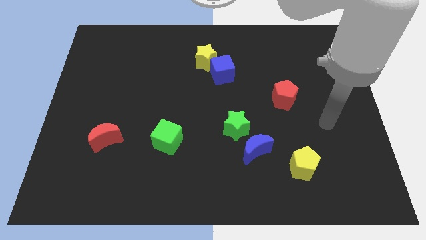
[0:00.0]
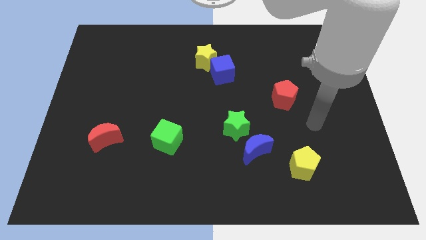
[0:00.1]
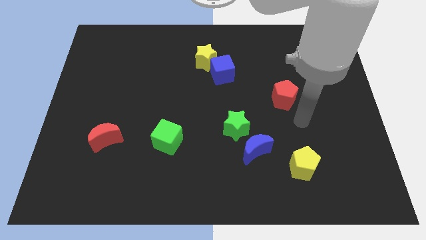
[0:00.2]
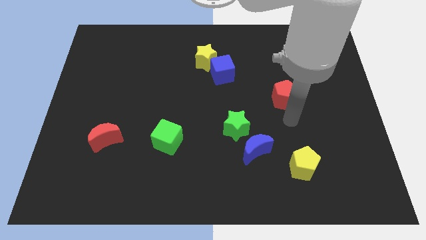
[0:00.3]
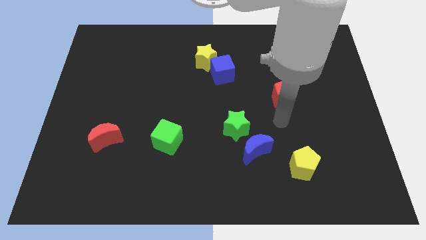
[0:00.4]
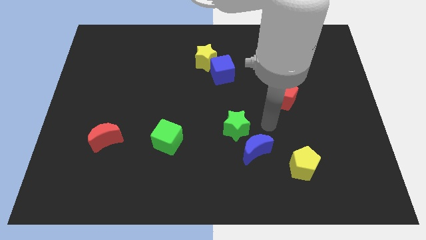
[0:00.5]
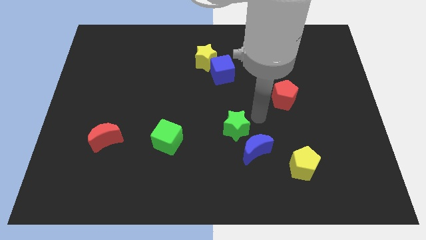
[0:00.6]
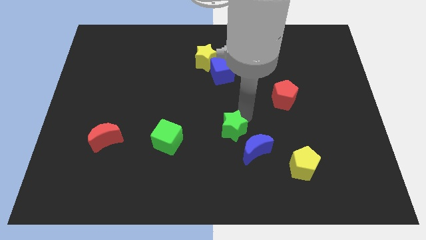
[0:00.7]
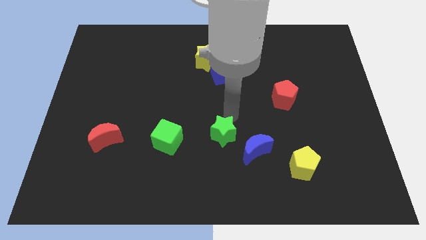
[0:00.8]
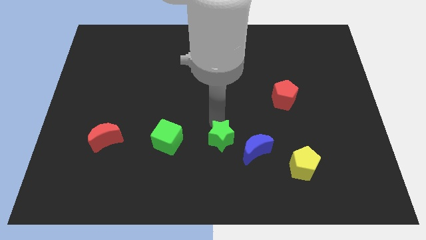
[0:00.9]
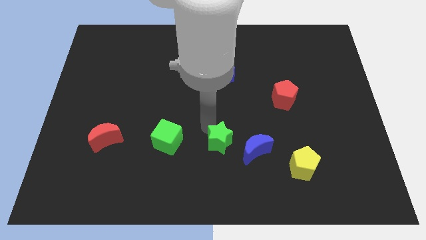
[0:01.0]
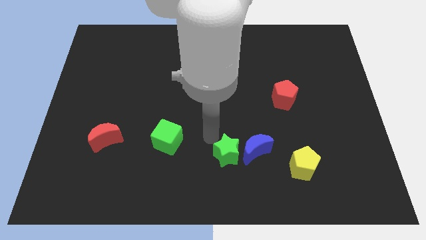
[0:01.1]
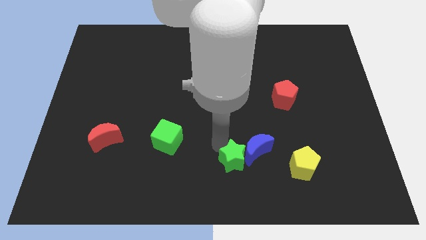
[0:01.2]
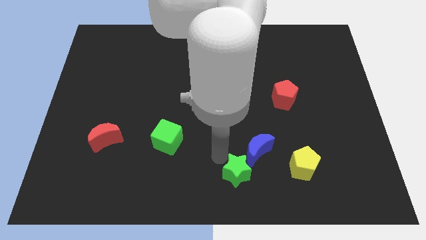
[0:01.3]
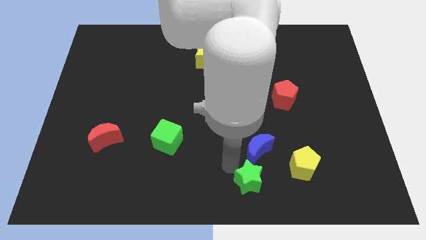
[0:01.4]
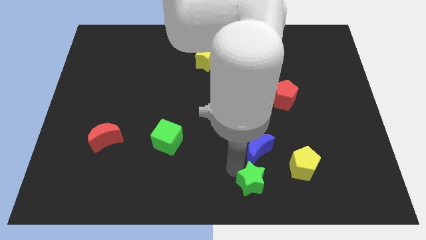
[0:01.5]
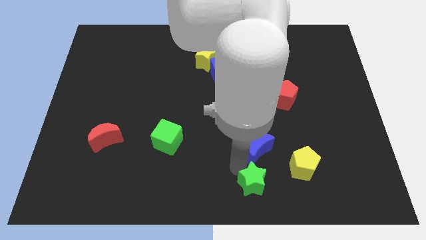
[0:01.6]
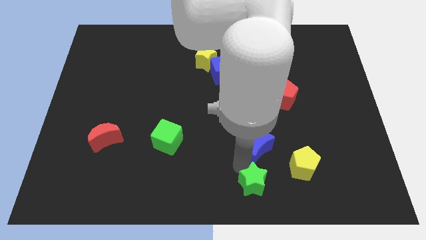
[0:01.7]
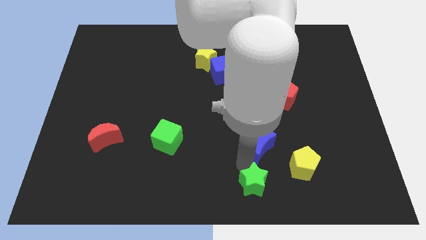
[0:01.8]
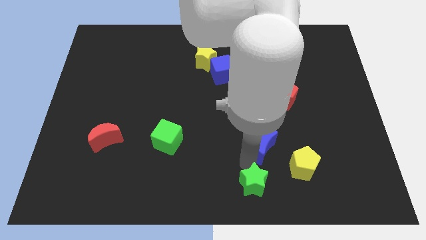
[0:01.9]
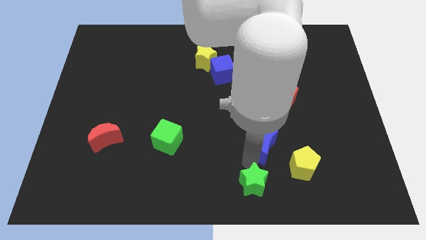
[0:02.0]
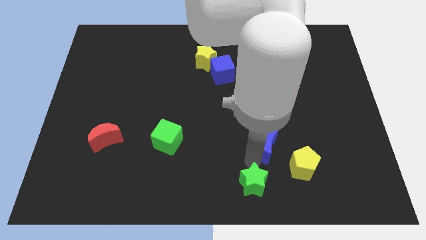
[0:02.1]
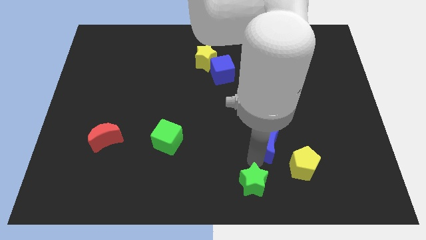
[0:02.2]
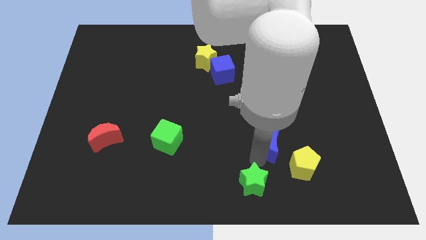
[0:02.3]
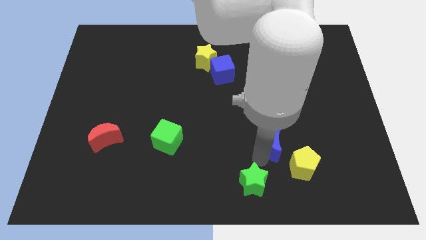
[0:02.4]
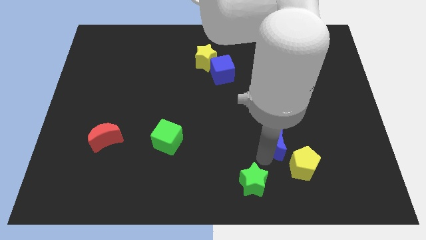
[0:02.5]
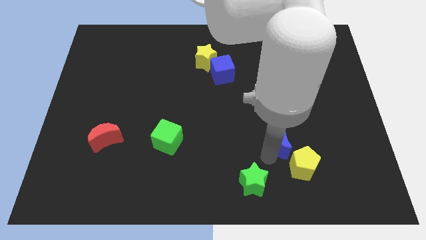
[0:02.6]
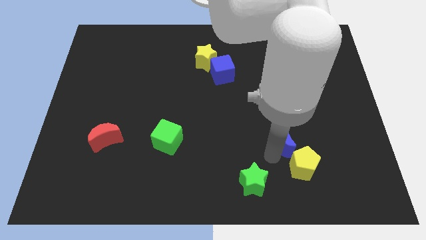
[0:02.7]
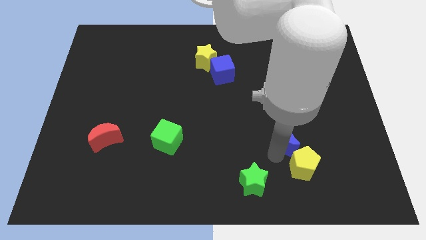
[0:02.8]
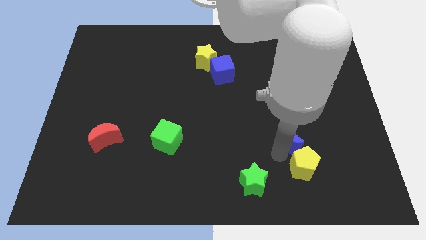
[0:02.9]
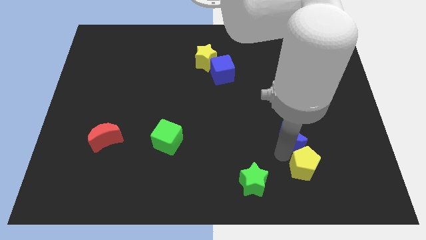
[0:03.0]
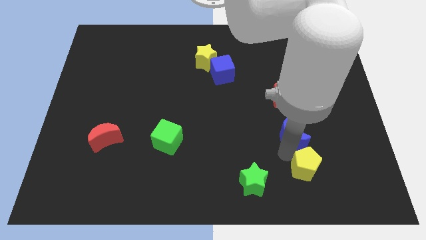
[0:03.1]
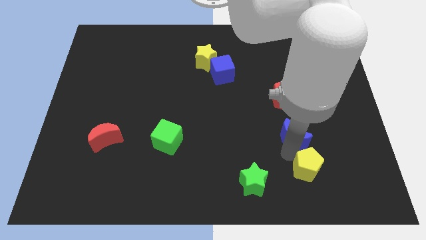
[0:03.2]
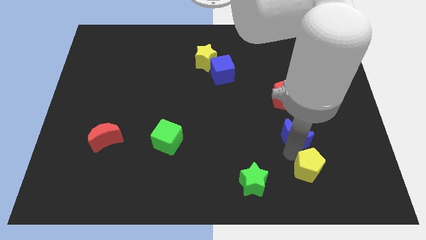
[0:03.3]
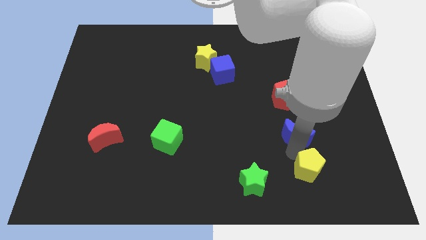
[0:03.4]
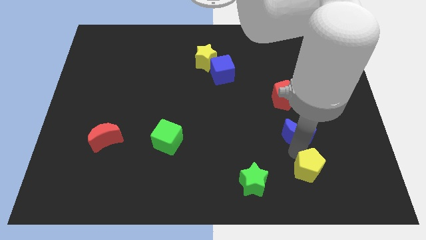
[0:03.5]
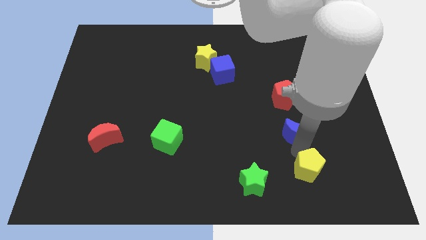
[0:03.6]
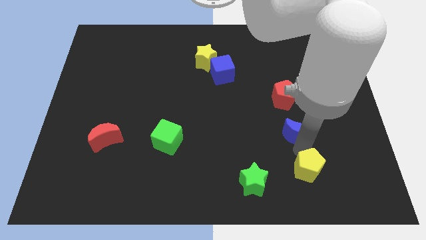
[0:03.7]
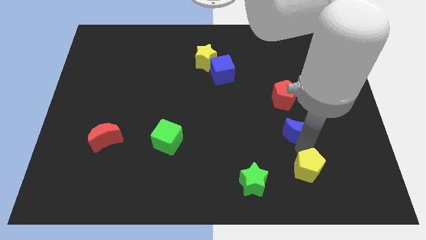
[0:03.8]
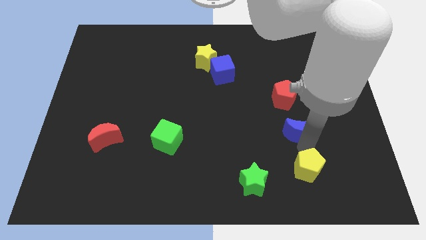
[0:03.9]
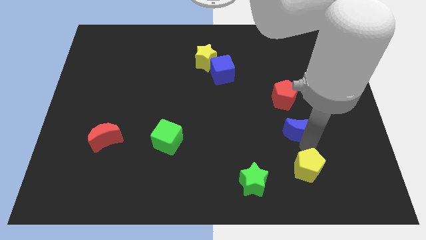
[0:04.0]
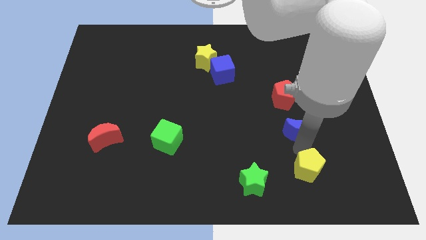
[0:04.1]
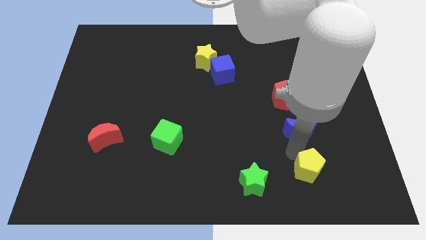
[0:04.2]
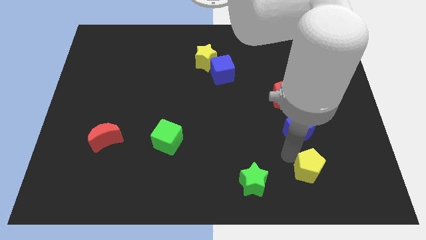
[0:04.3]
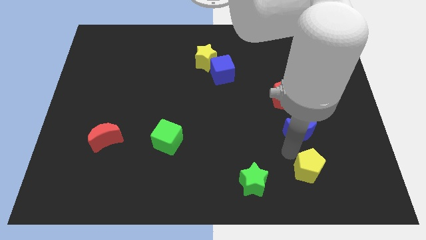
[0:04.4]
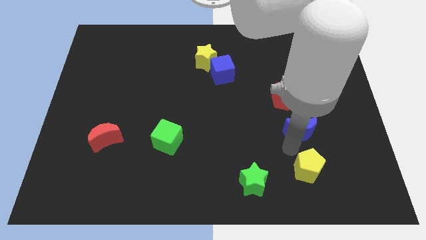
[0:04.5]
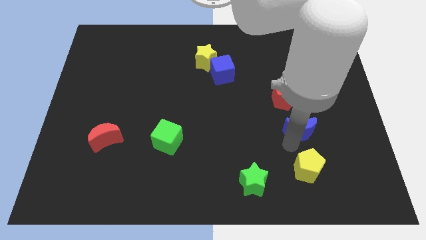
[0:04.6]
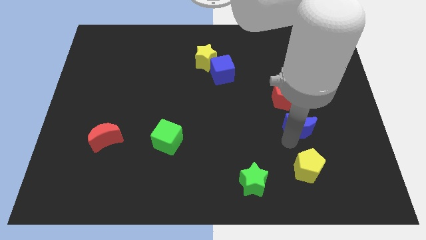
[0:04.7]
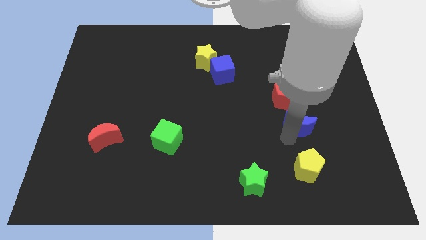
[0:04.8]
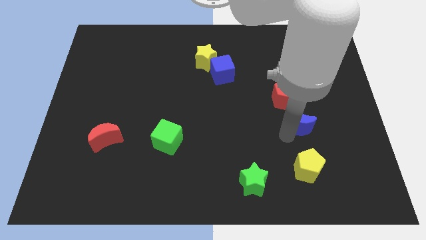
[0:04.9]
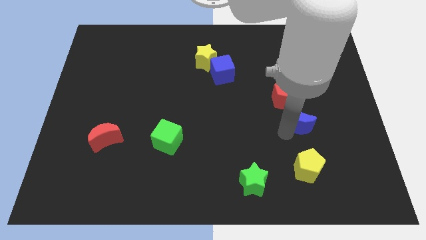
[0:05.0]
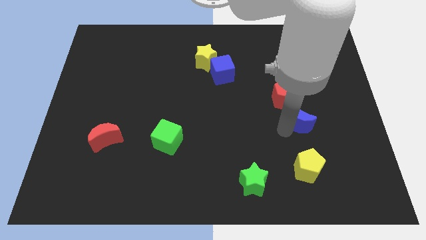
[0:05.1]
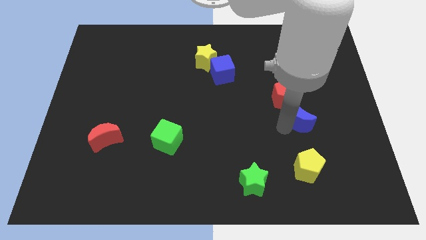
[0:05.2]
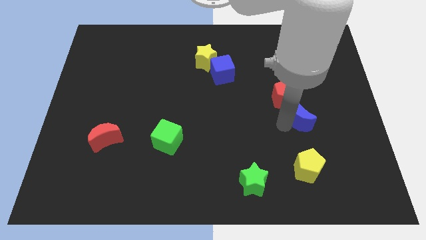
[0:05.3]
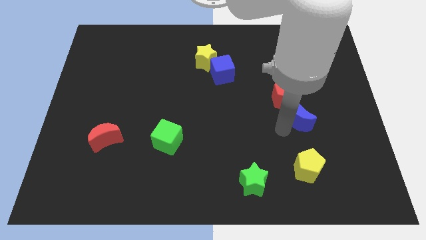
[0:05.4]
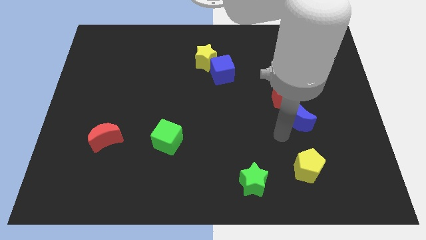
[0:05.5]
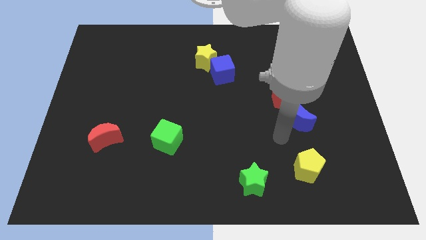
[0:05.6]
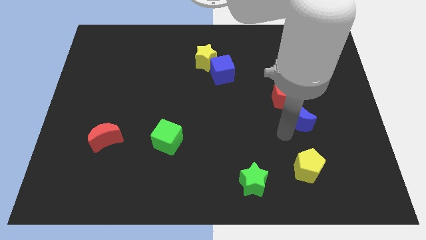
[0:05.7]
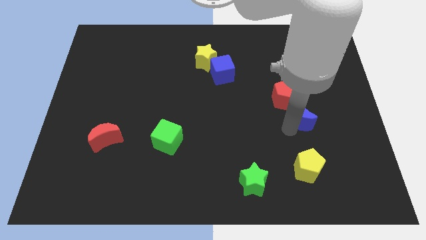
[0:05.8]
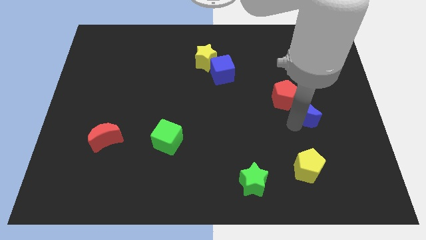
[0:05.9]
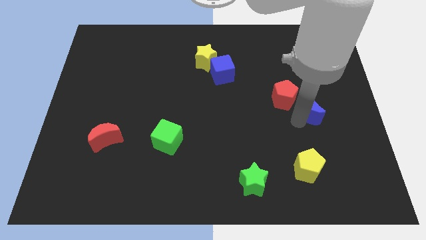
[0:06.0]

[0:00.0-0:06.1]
push the blue moon to the right side of the red pentagon

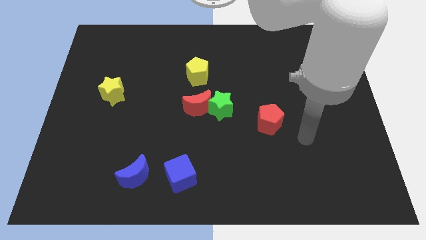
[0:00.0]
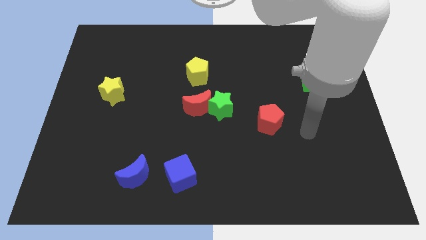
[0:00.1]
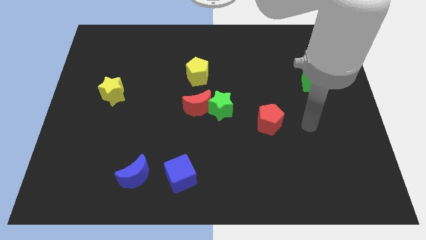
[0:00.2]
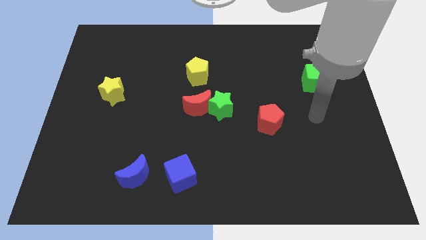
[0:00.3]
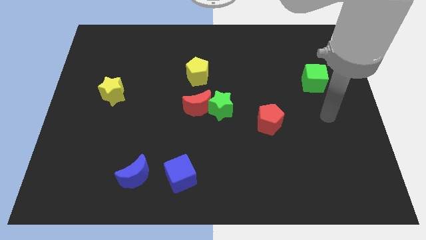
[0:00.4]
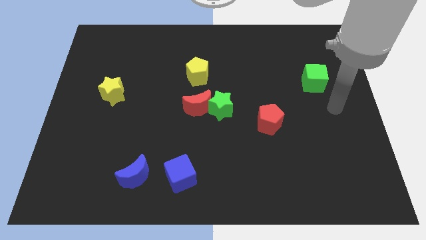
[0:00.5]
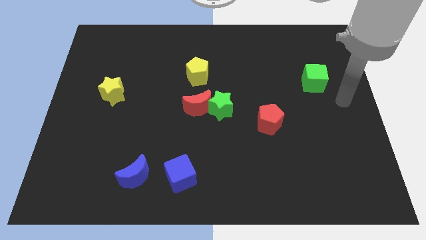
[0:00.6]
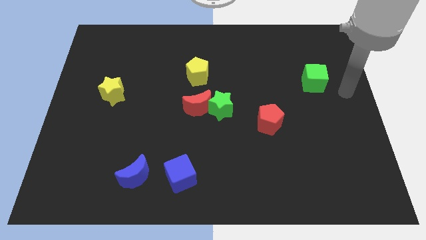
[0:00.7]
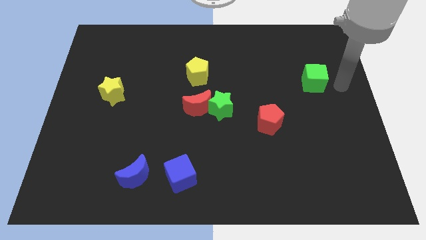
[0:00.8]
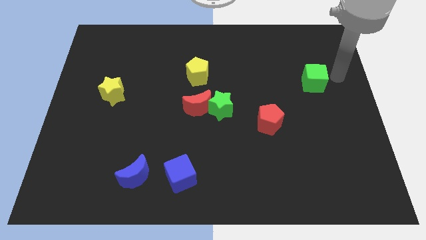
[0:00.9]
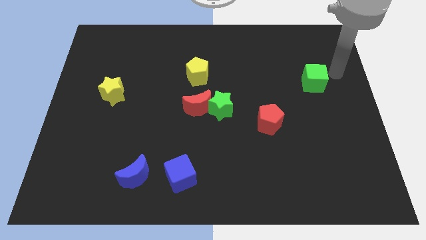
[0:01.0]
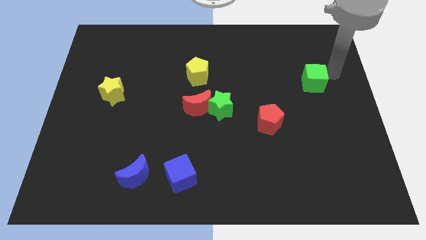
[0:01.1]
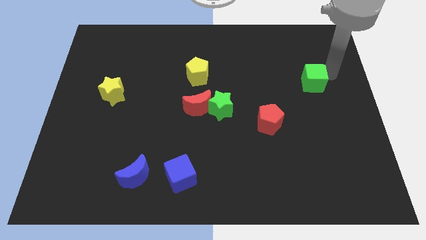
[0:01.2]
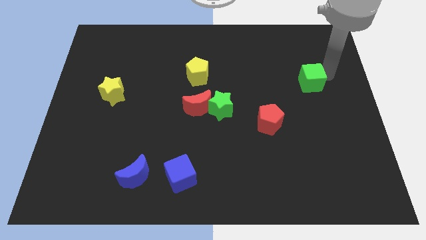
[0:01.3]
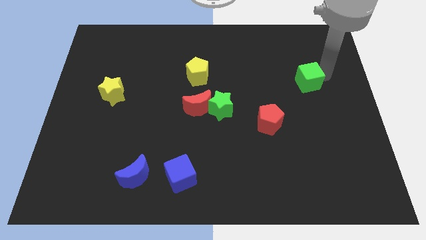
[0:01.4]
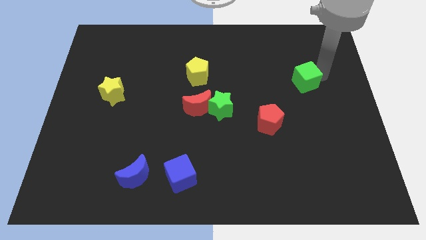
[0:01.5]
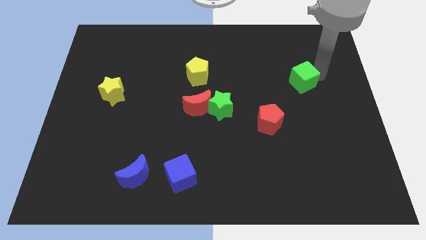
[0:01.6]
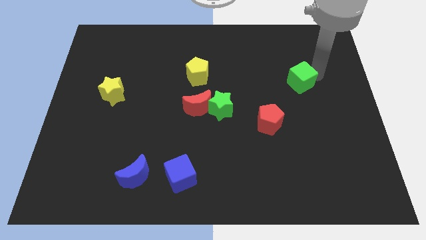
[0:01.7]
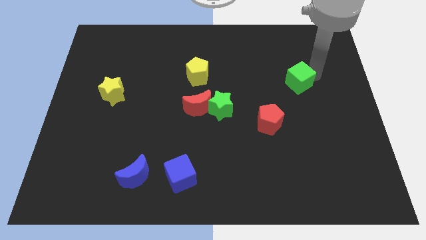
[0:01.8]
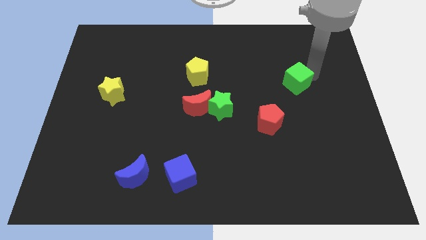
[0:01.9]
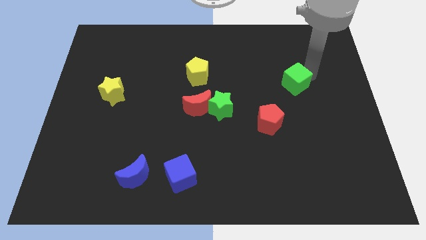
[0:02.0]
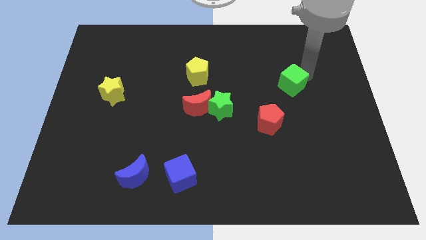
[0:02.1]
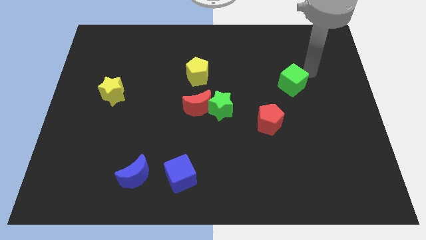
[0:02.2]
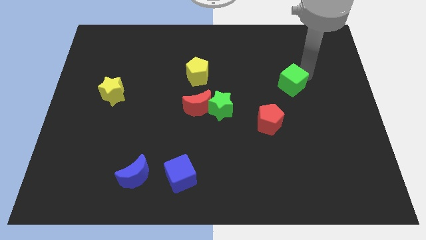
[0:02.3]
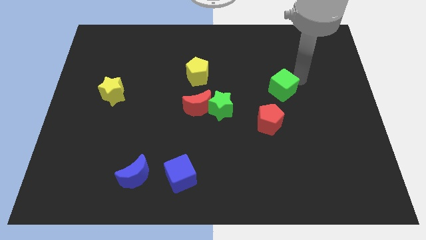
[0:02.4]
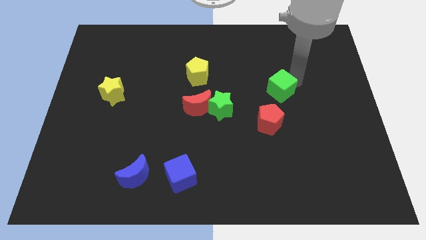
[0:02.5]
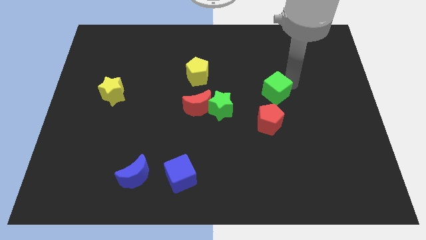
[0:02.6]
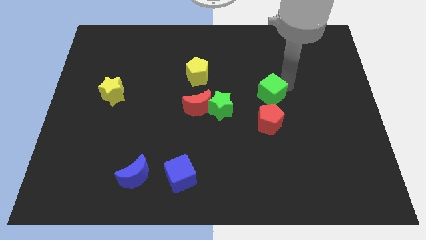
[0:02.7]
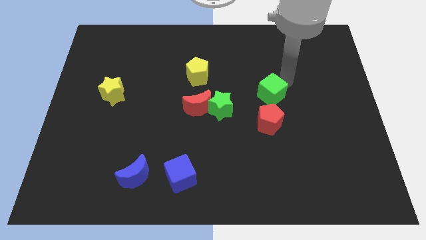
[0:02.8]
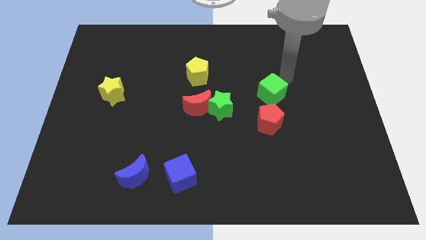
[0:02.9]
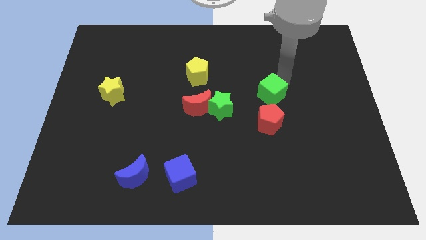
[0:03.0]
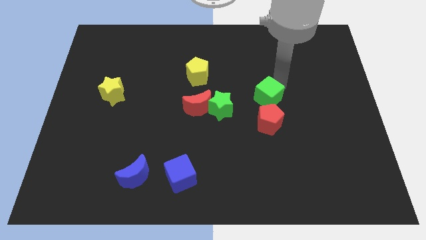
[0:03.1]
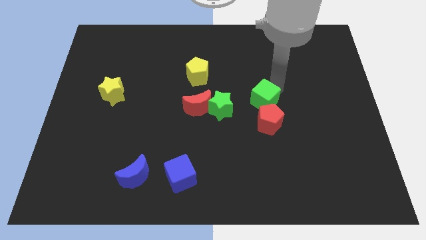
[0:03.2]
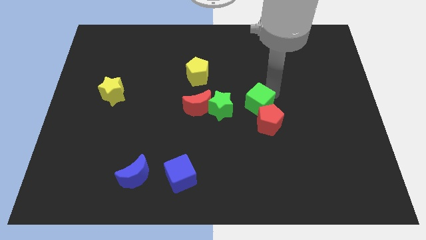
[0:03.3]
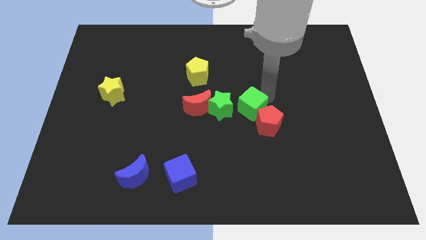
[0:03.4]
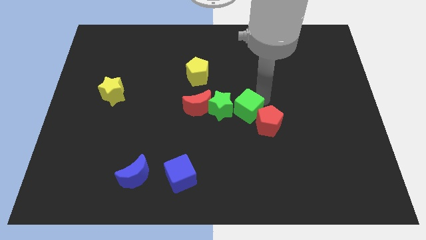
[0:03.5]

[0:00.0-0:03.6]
move the green cube just left of the red pentagon
